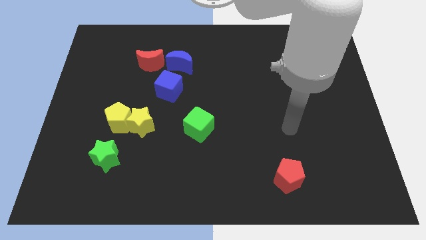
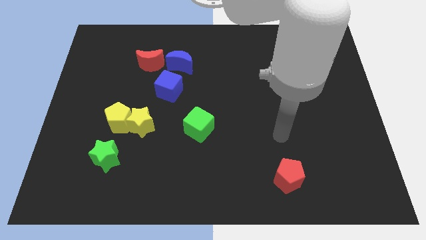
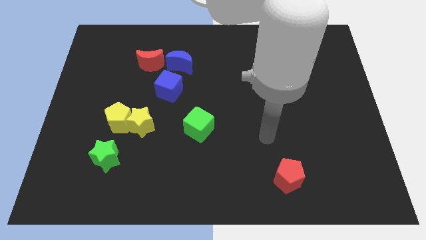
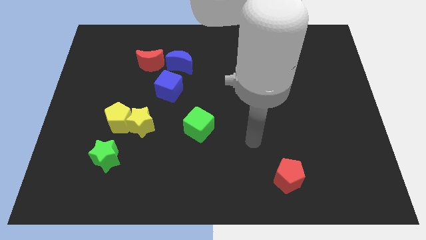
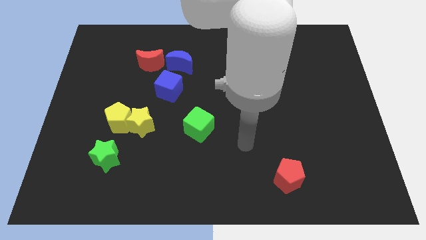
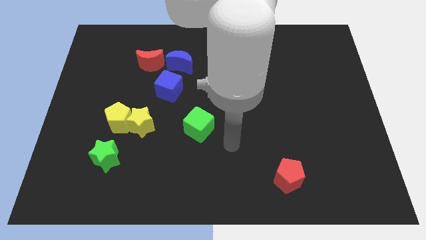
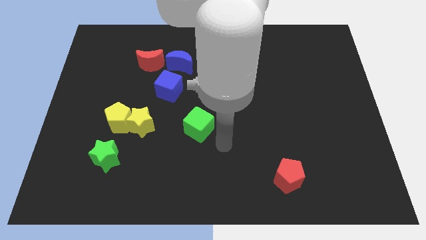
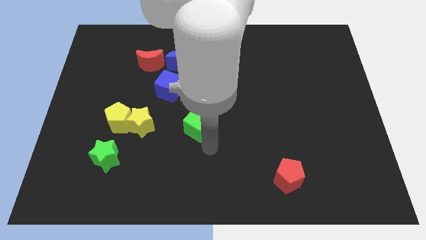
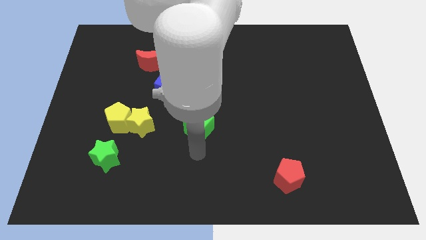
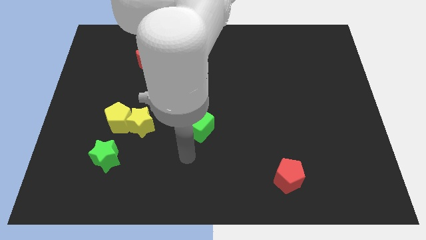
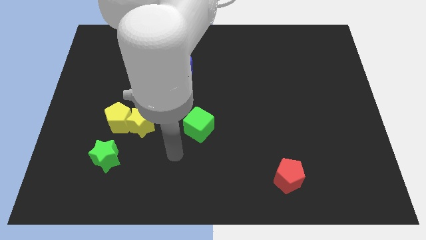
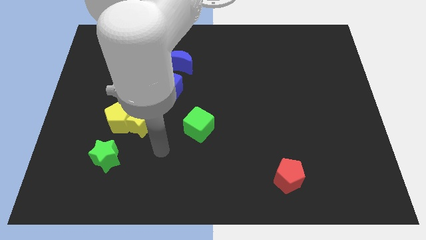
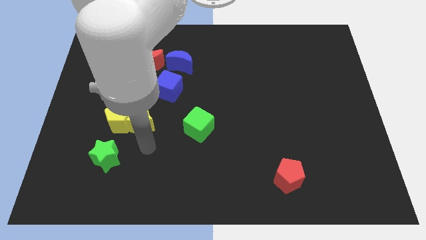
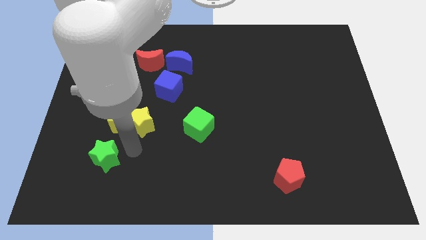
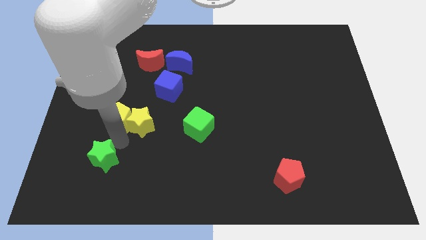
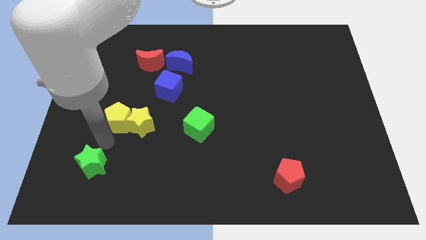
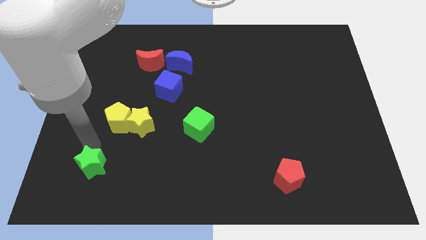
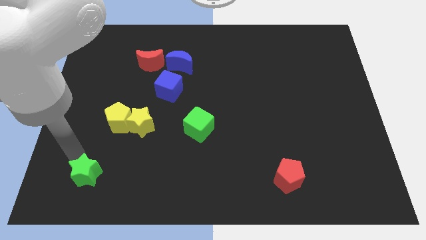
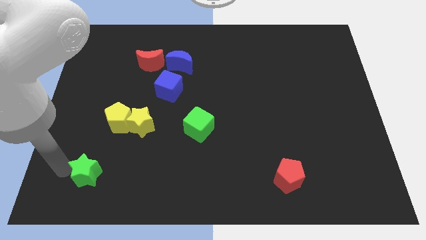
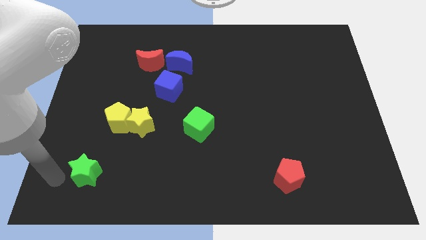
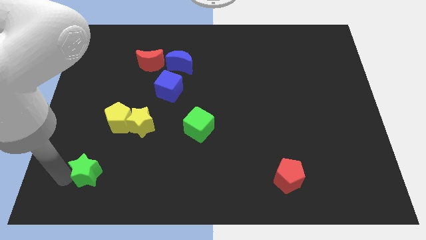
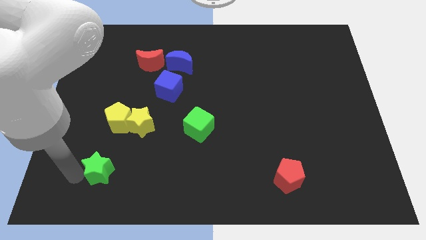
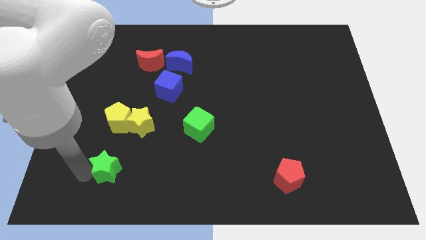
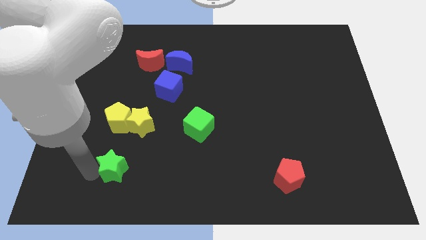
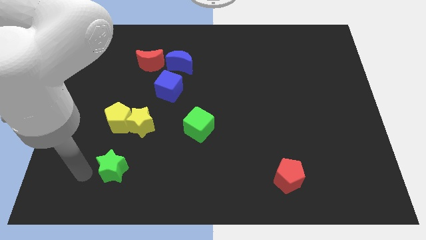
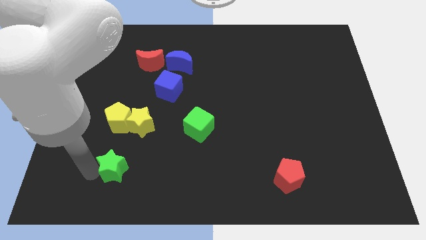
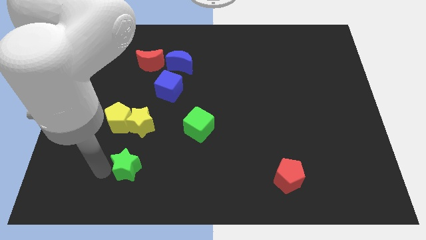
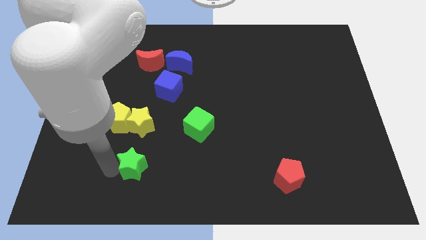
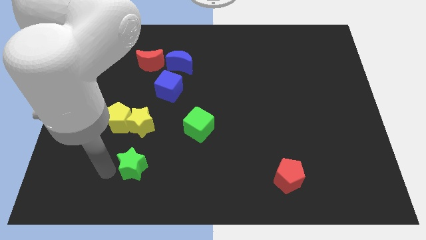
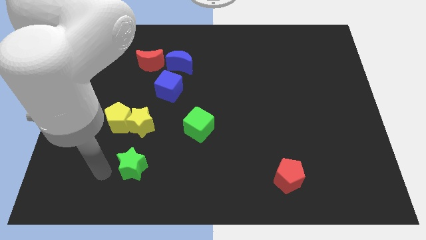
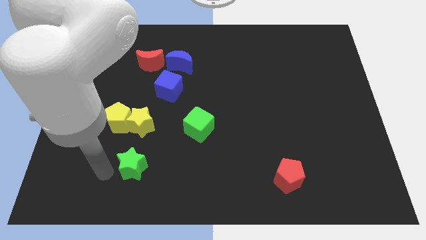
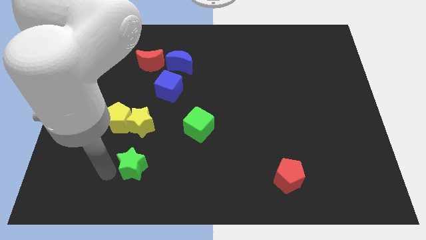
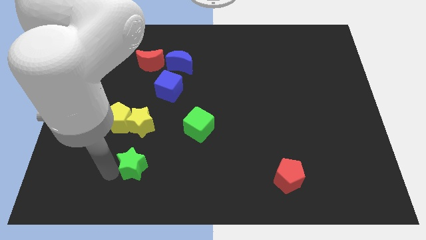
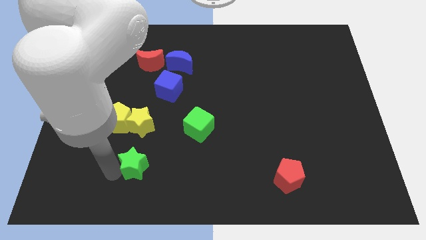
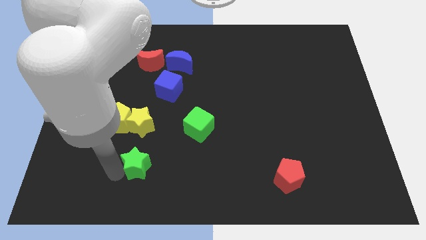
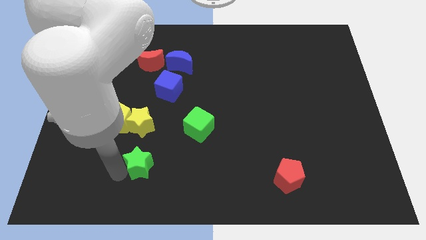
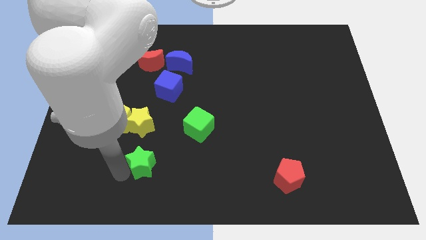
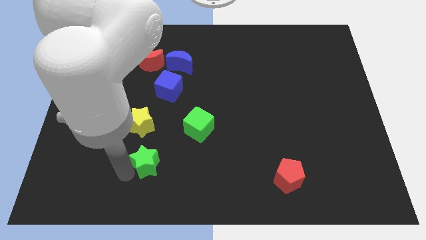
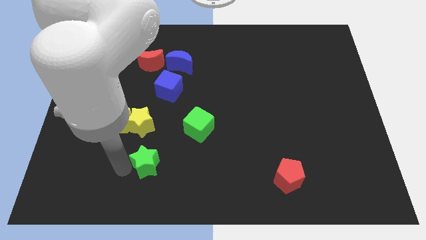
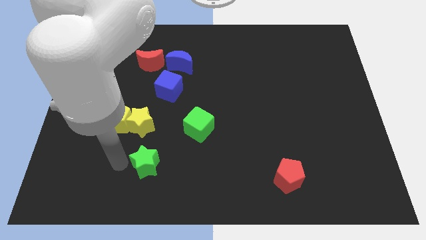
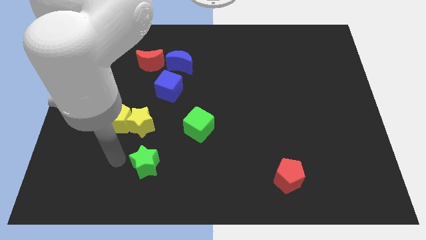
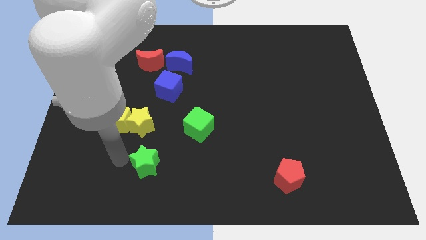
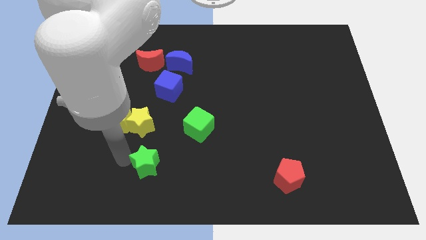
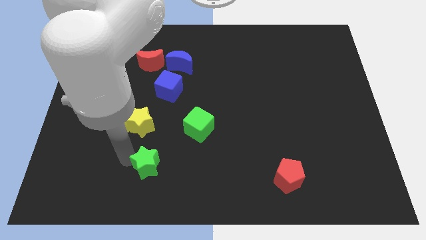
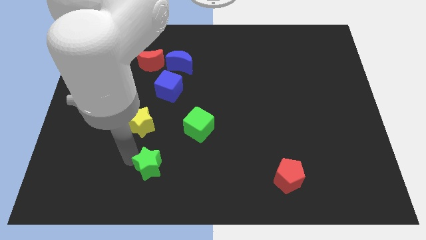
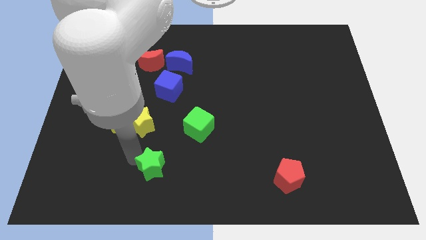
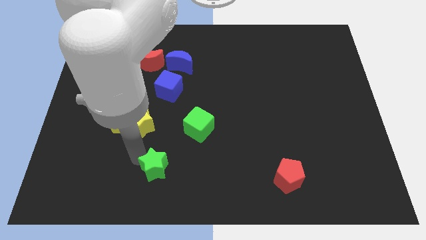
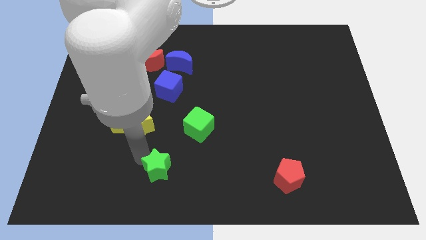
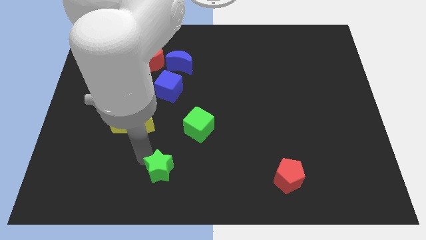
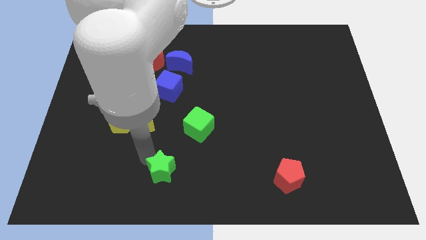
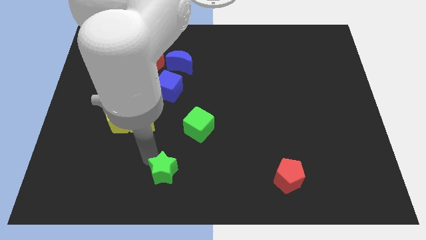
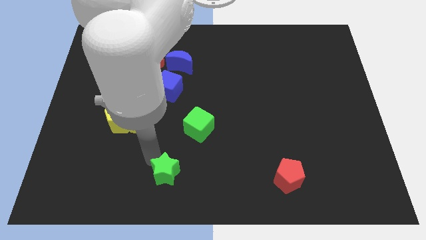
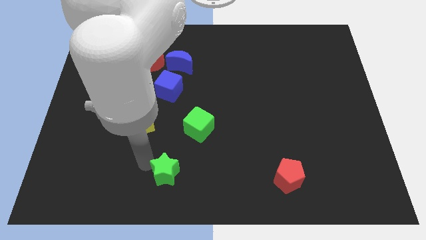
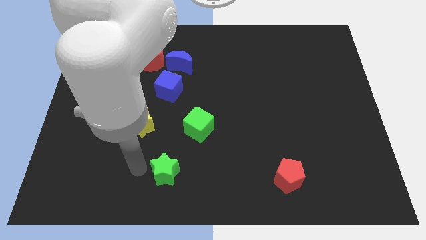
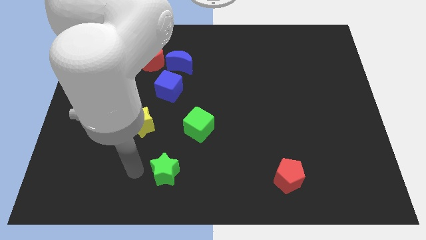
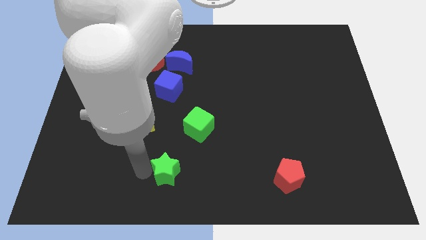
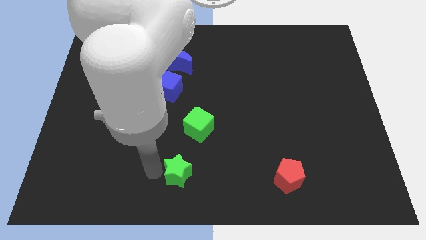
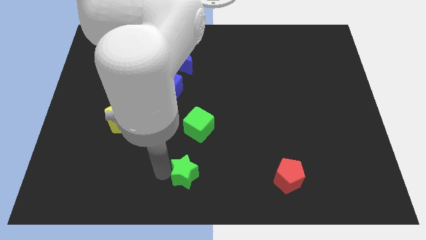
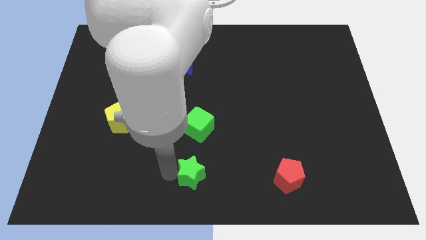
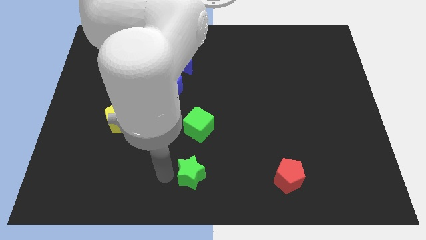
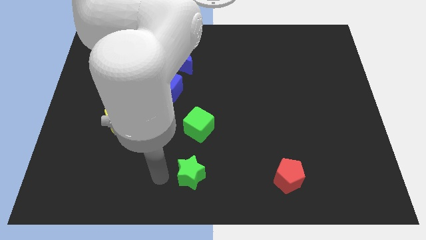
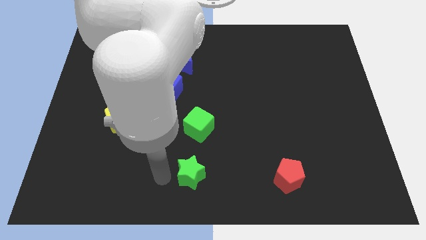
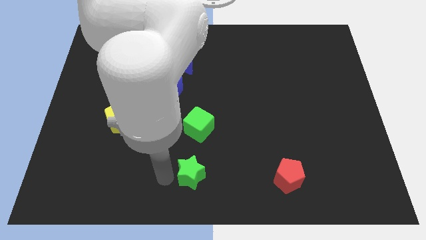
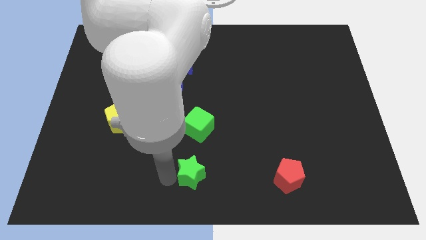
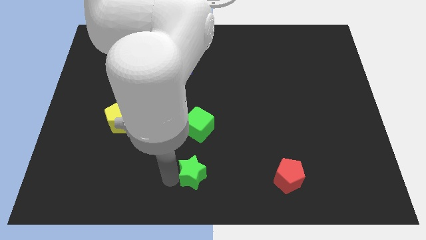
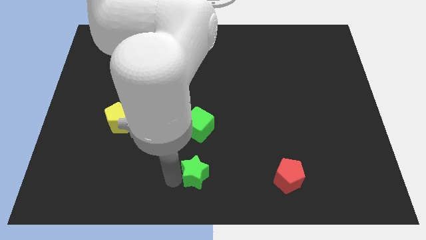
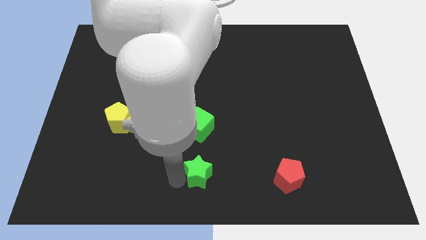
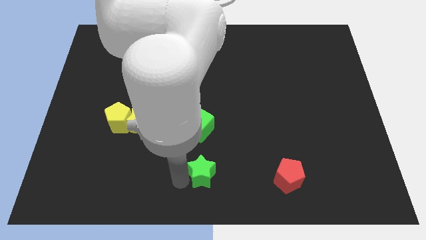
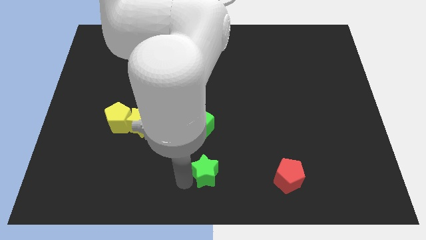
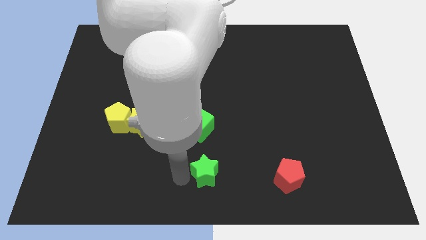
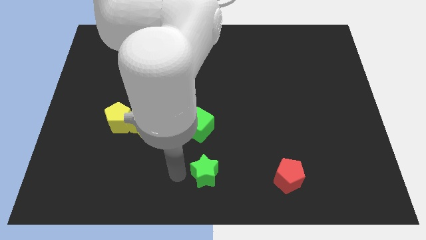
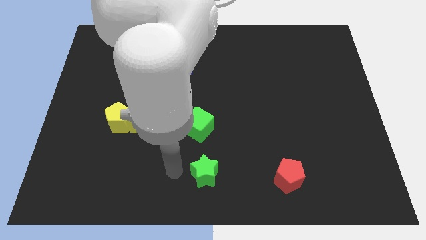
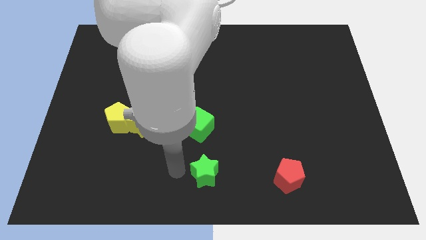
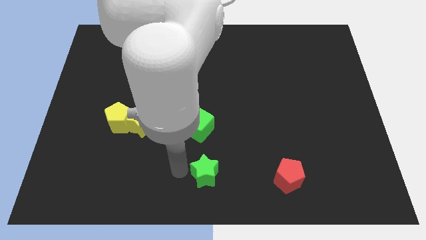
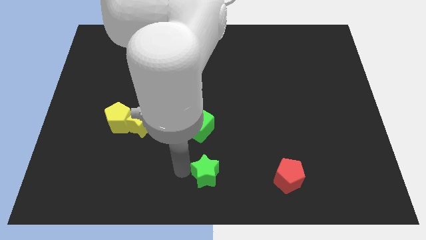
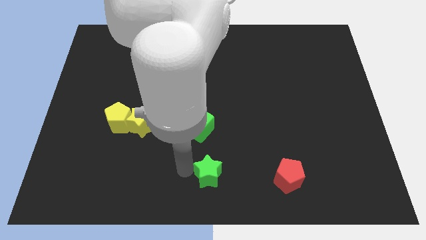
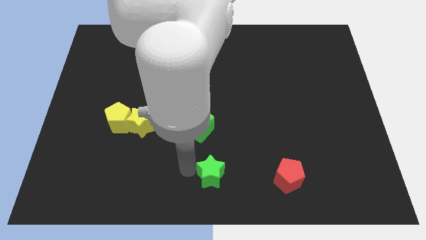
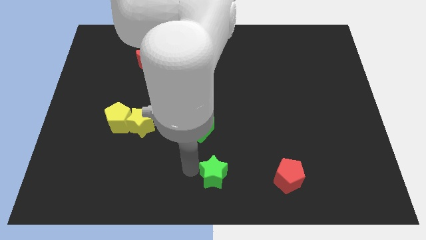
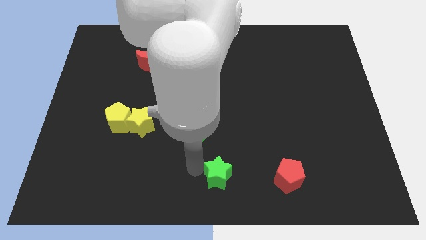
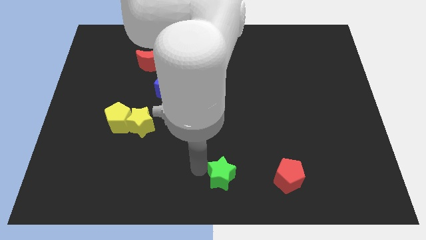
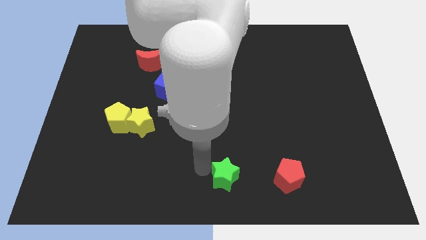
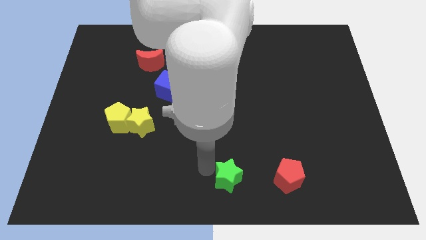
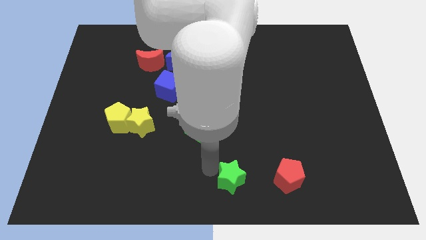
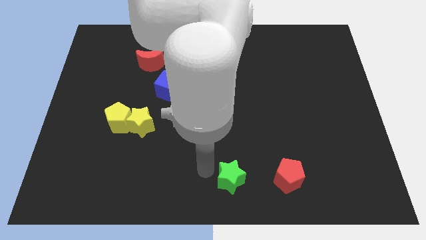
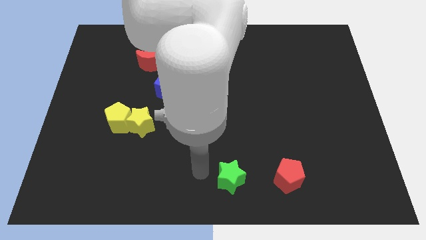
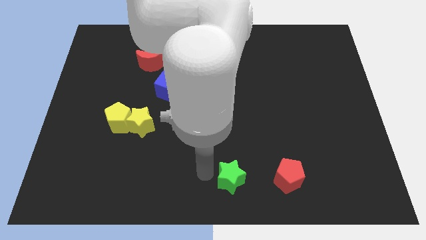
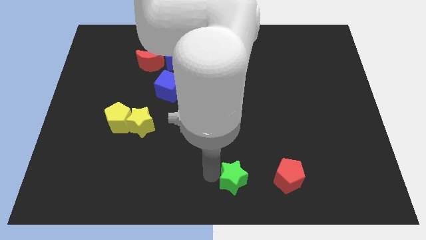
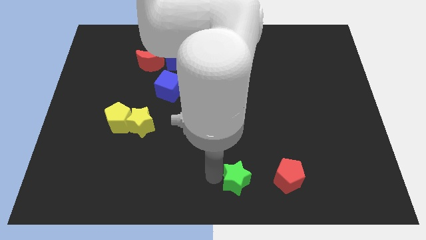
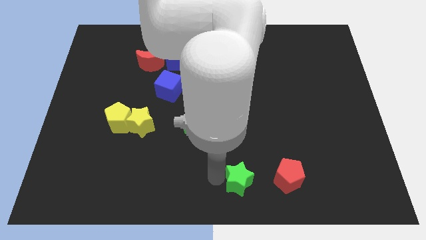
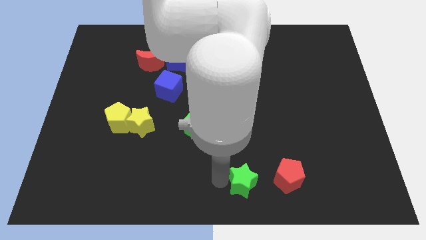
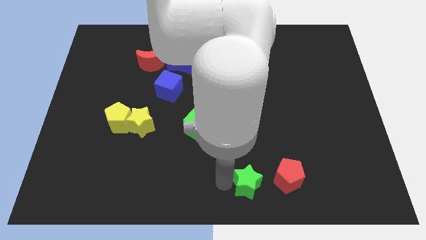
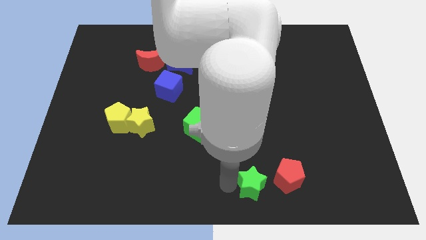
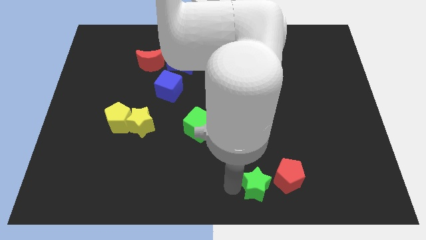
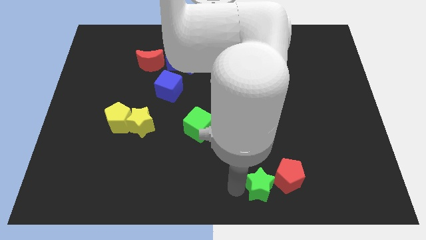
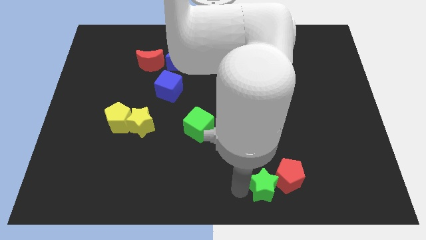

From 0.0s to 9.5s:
move the green star next to the red pentagon
